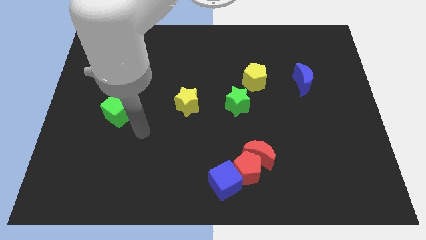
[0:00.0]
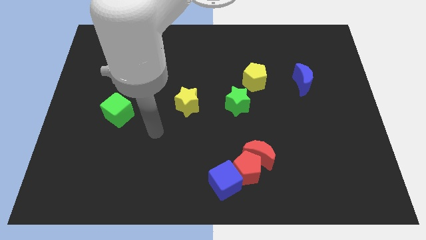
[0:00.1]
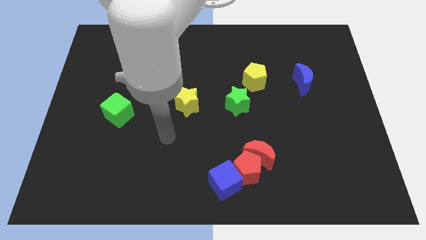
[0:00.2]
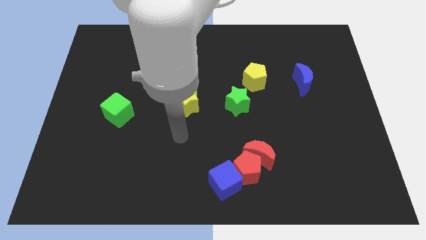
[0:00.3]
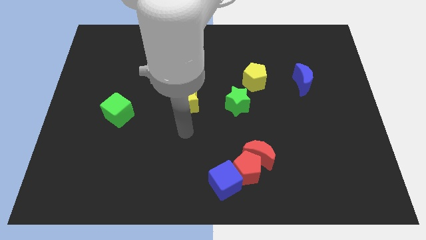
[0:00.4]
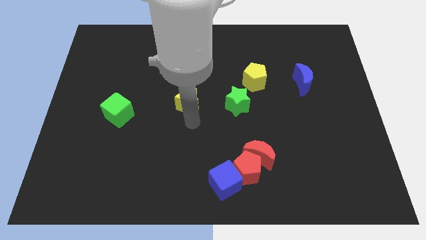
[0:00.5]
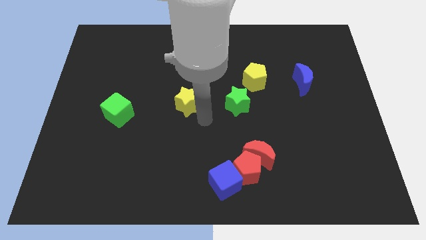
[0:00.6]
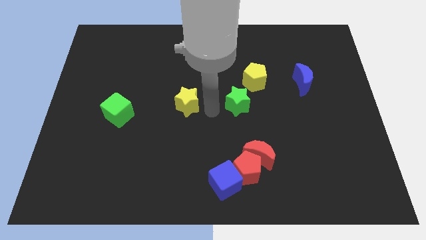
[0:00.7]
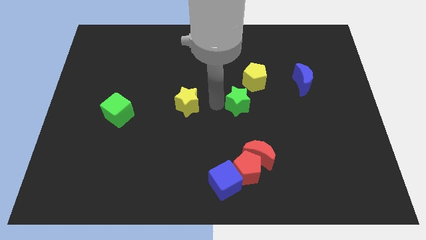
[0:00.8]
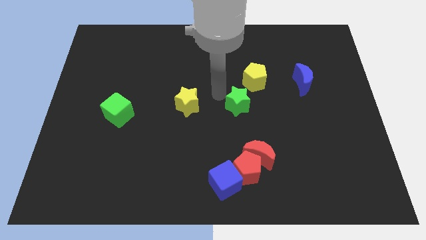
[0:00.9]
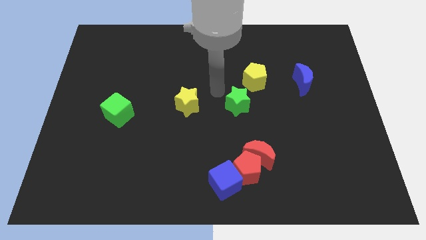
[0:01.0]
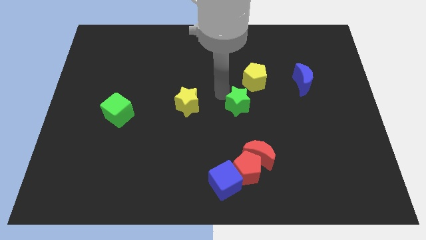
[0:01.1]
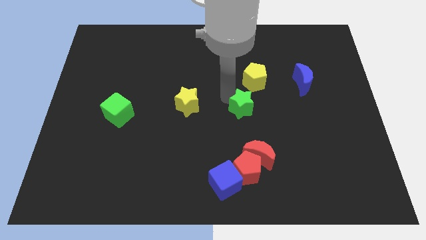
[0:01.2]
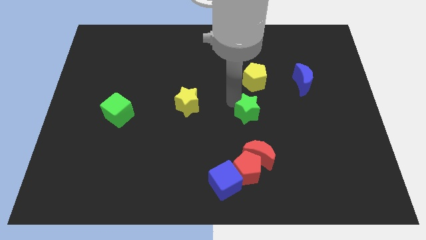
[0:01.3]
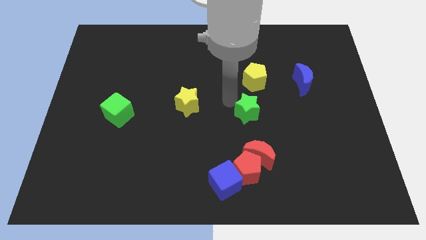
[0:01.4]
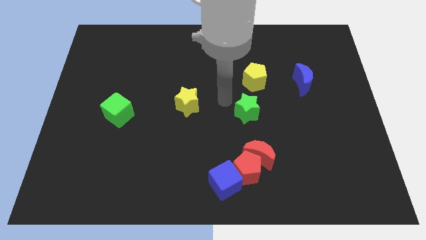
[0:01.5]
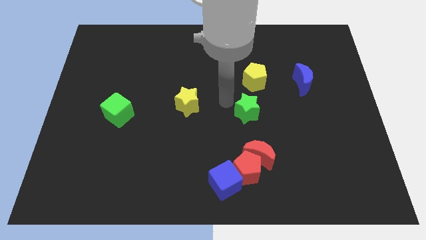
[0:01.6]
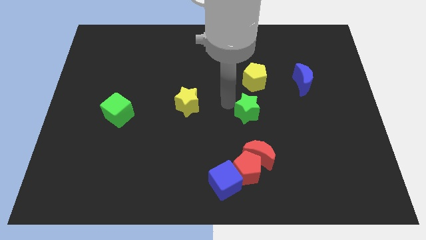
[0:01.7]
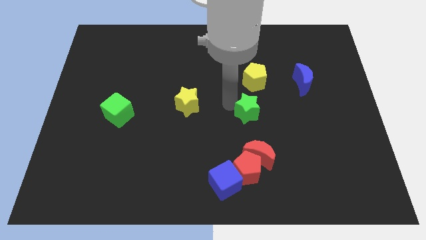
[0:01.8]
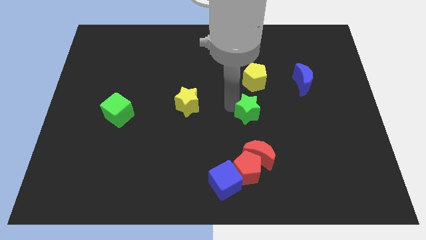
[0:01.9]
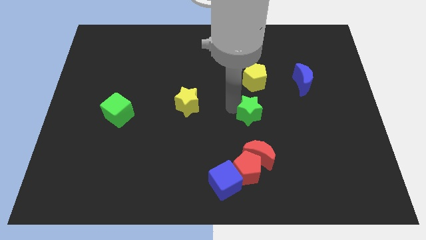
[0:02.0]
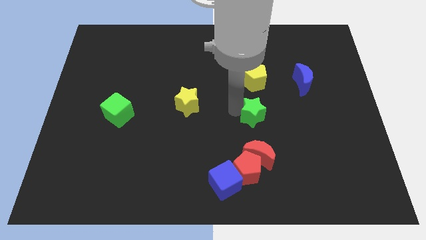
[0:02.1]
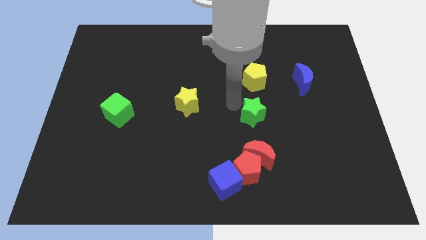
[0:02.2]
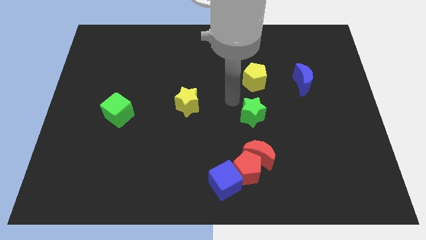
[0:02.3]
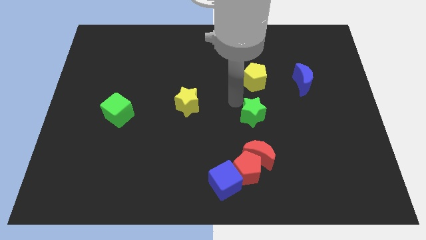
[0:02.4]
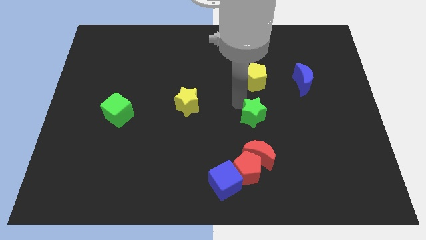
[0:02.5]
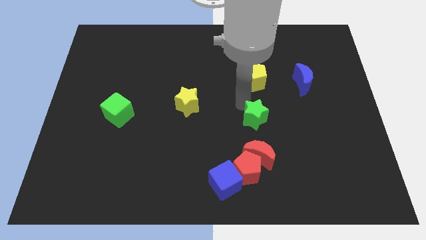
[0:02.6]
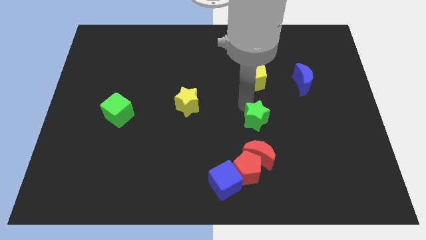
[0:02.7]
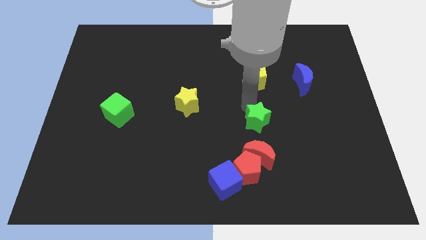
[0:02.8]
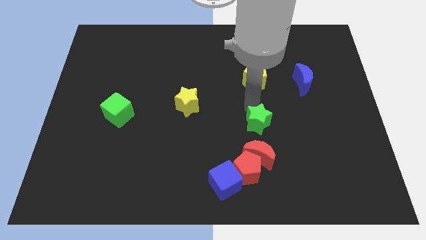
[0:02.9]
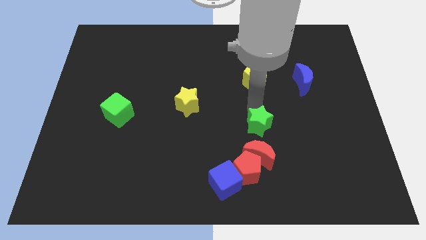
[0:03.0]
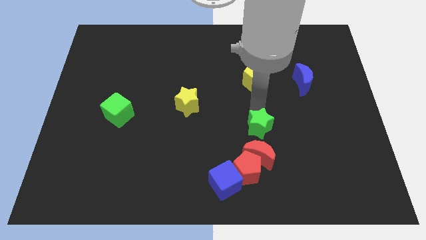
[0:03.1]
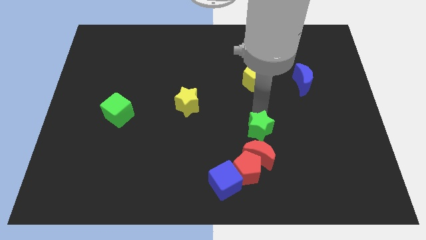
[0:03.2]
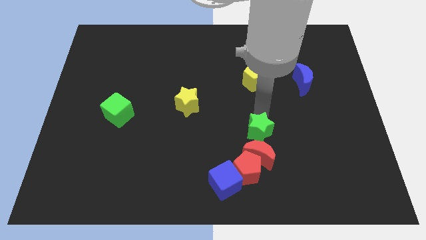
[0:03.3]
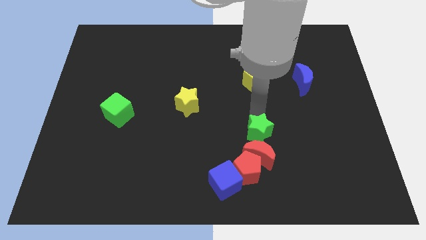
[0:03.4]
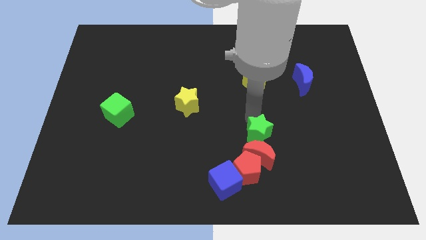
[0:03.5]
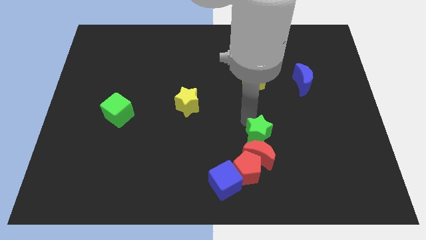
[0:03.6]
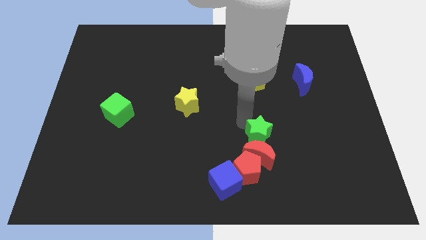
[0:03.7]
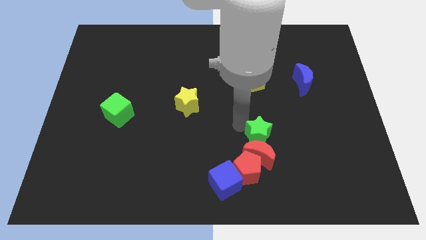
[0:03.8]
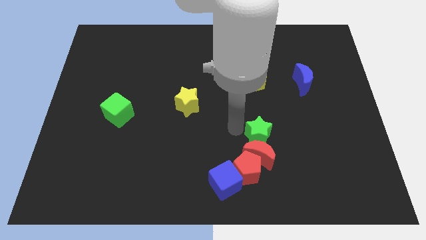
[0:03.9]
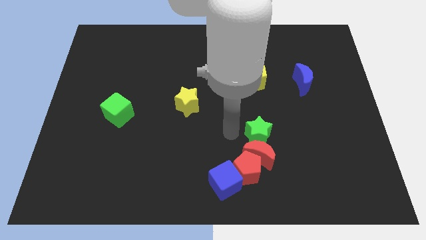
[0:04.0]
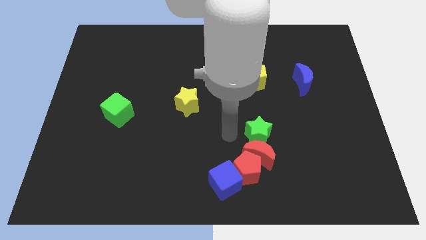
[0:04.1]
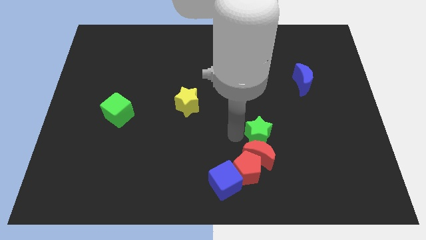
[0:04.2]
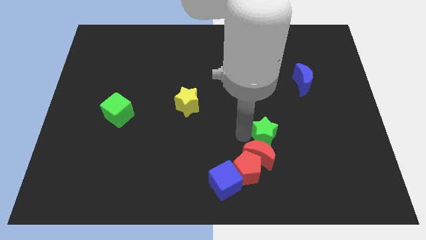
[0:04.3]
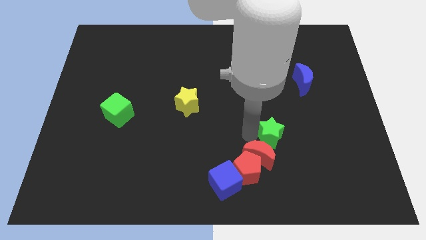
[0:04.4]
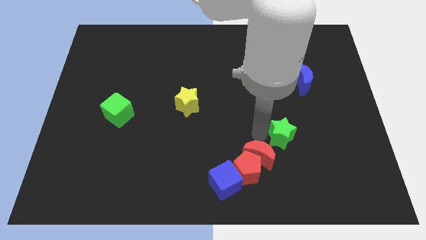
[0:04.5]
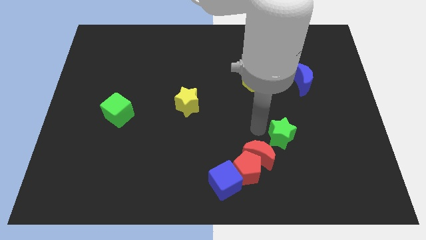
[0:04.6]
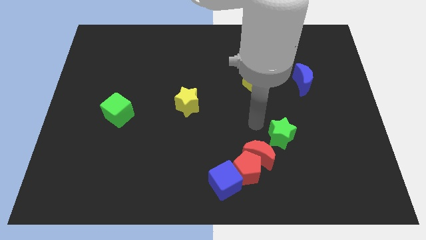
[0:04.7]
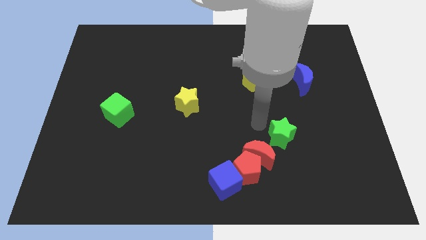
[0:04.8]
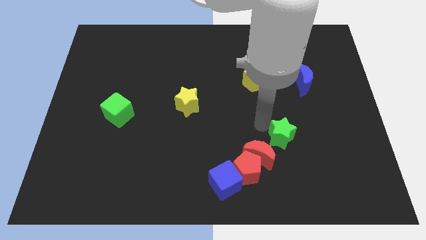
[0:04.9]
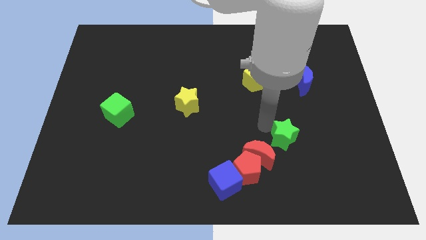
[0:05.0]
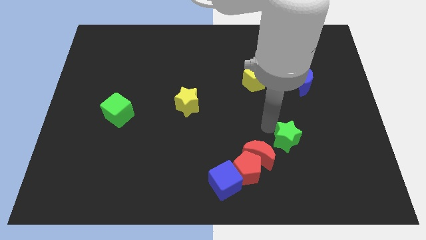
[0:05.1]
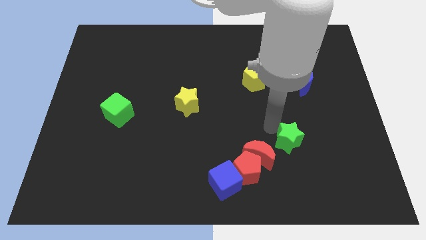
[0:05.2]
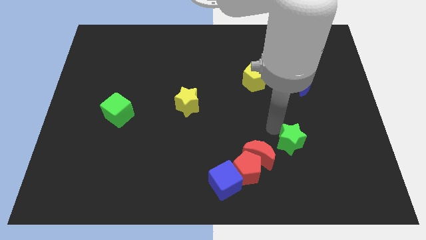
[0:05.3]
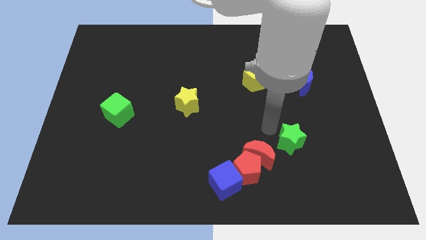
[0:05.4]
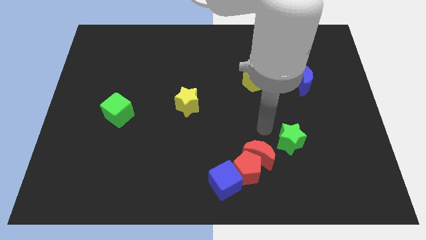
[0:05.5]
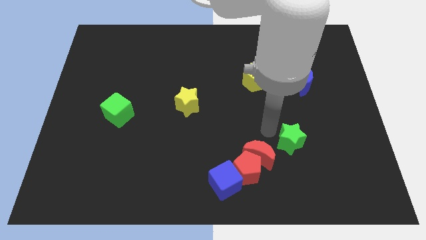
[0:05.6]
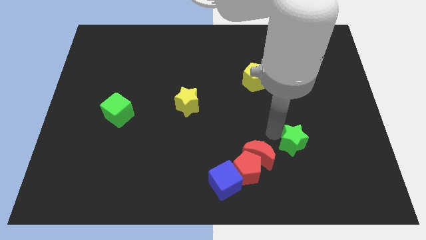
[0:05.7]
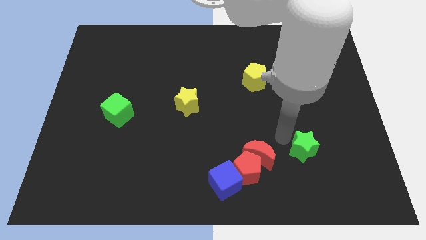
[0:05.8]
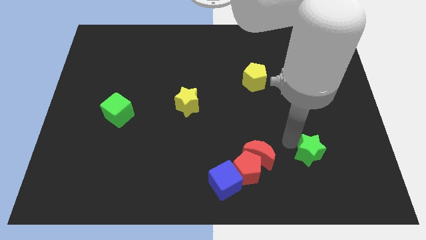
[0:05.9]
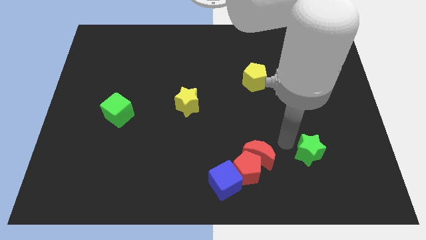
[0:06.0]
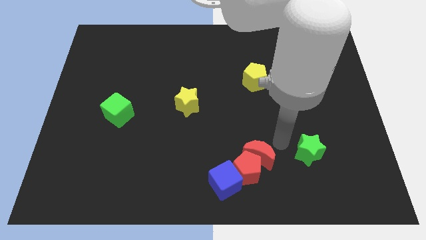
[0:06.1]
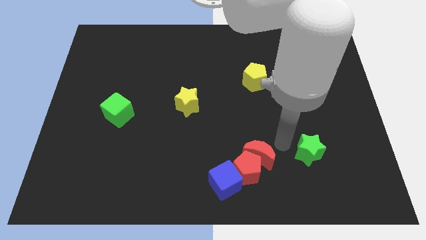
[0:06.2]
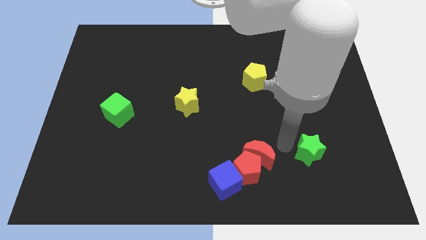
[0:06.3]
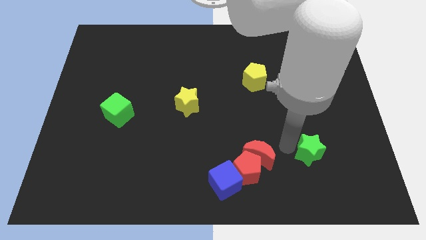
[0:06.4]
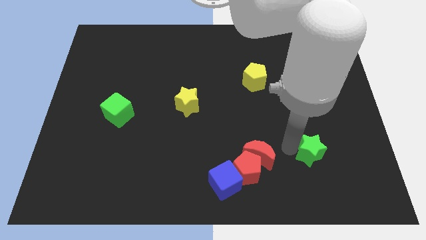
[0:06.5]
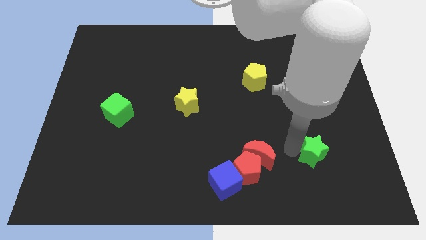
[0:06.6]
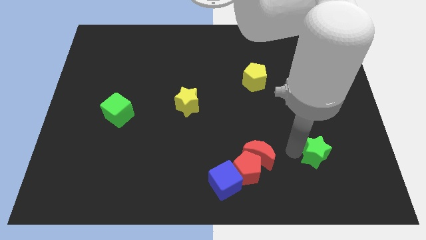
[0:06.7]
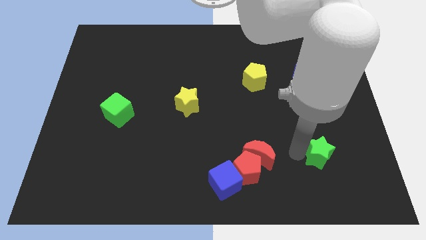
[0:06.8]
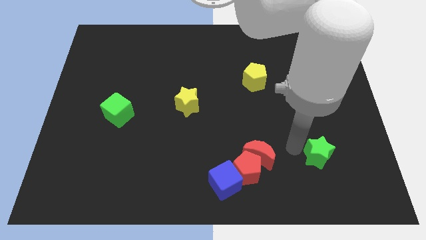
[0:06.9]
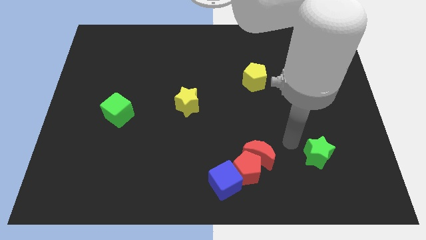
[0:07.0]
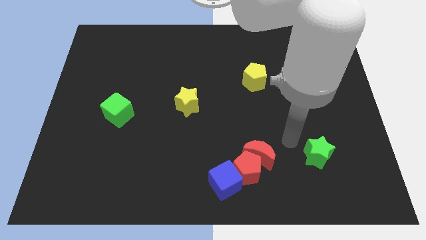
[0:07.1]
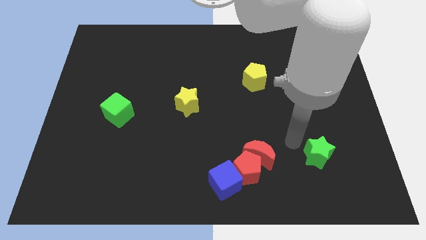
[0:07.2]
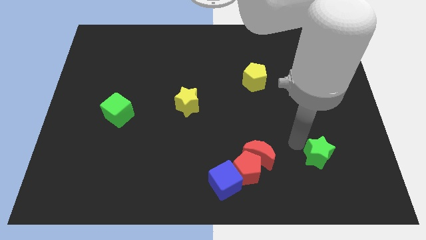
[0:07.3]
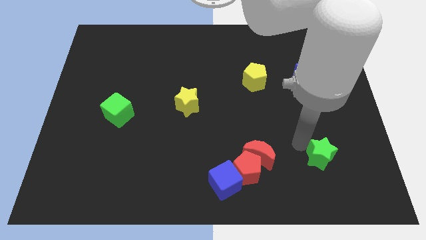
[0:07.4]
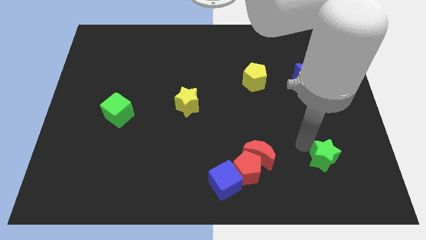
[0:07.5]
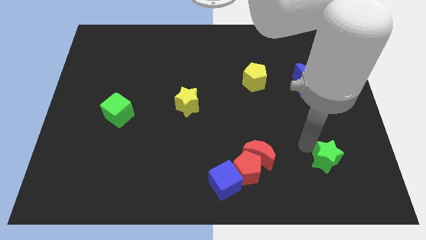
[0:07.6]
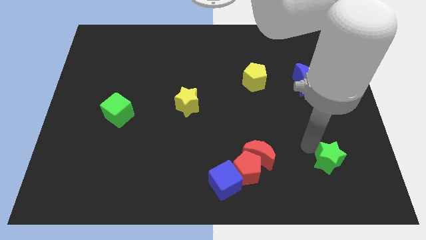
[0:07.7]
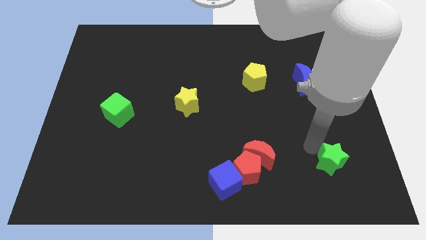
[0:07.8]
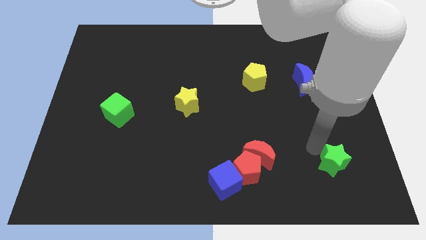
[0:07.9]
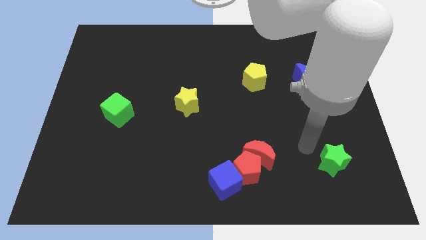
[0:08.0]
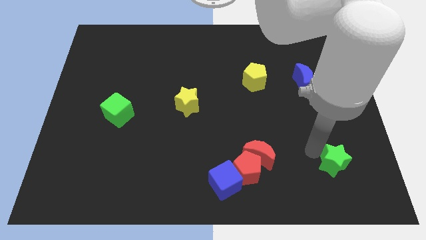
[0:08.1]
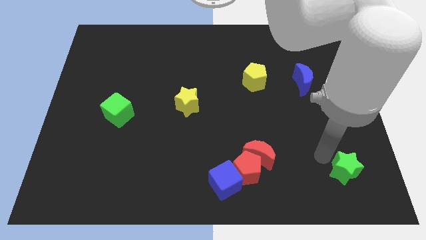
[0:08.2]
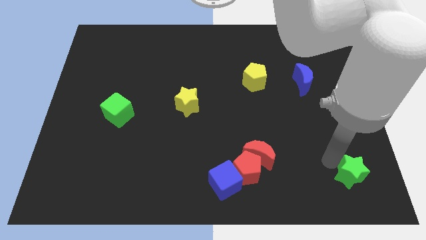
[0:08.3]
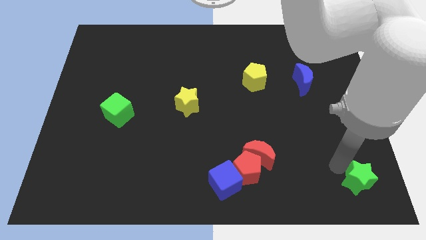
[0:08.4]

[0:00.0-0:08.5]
push the green star to the lower right corner
